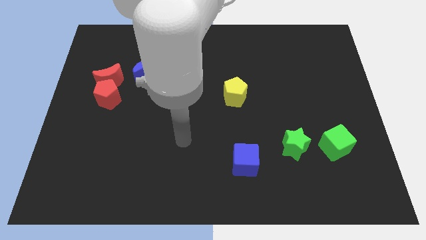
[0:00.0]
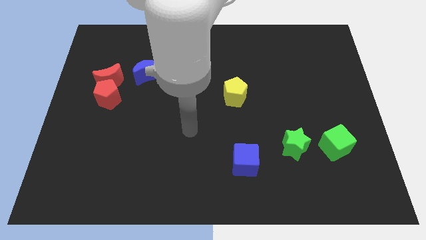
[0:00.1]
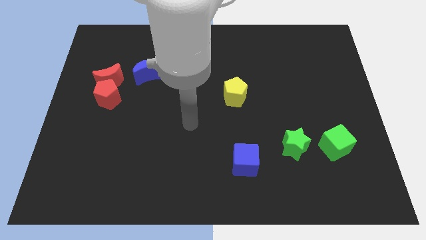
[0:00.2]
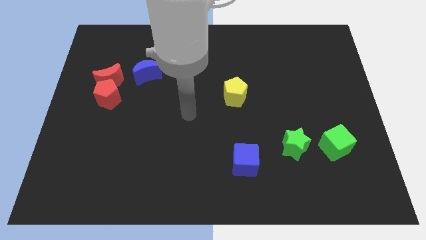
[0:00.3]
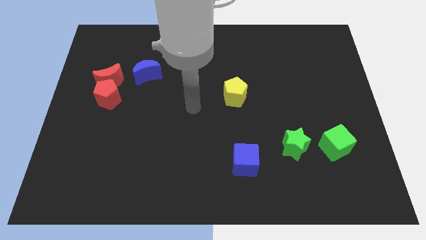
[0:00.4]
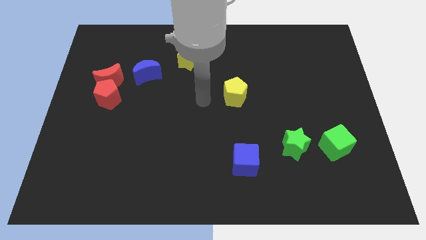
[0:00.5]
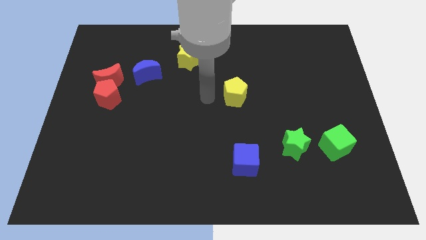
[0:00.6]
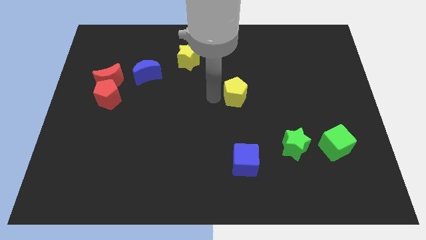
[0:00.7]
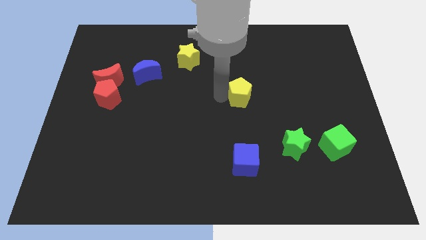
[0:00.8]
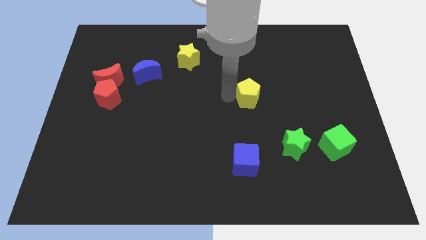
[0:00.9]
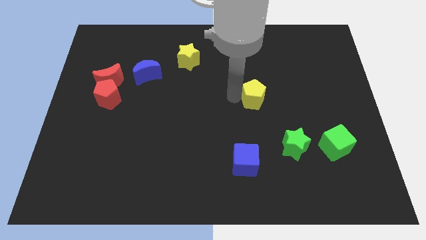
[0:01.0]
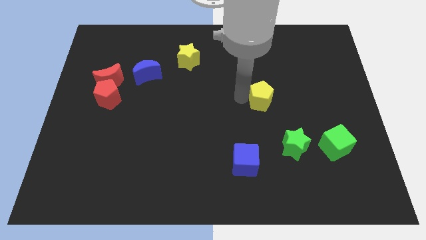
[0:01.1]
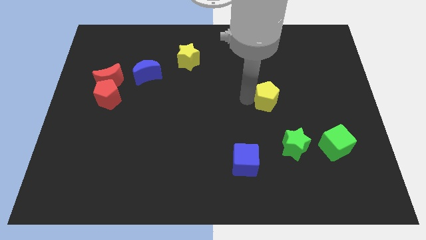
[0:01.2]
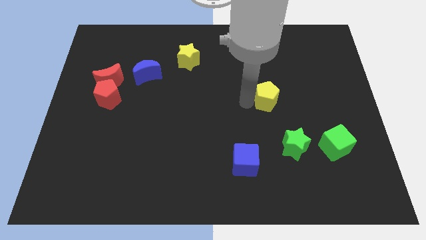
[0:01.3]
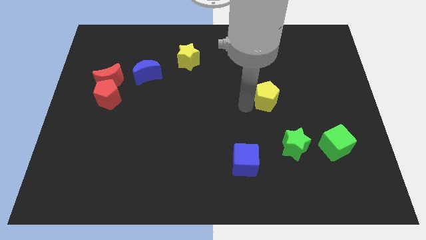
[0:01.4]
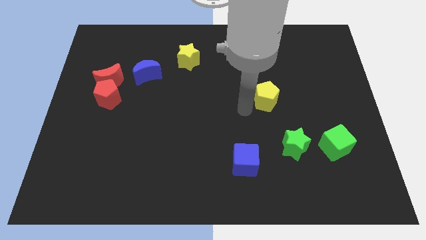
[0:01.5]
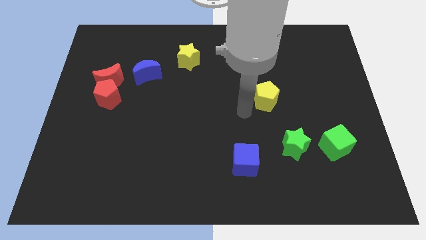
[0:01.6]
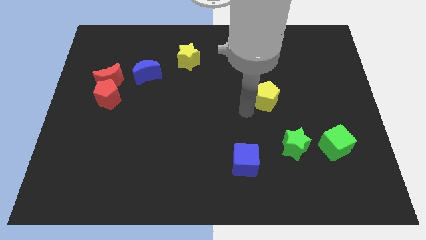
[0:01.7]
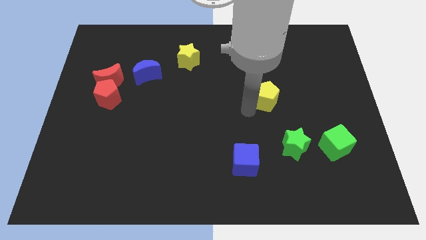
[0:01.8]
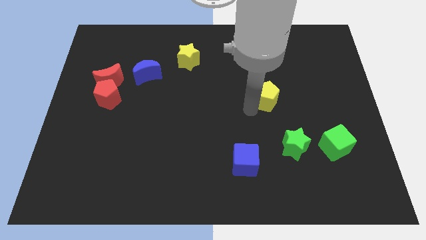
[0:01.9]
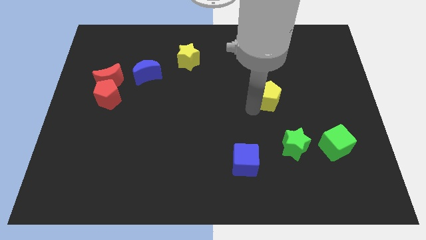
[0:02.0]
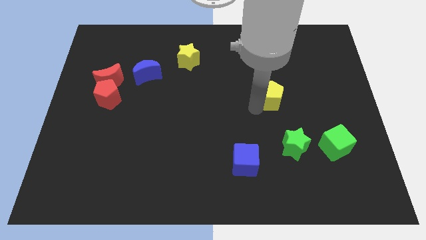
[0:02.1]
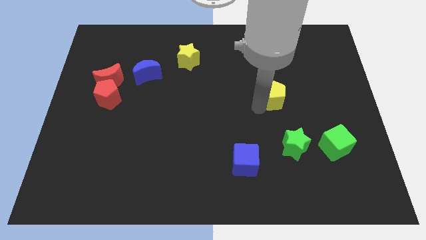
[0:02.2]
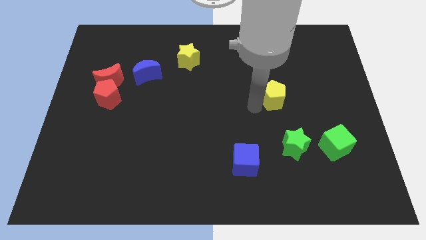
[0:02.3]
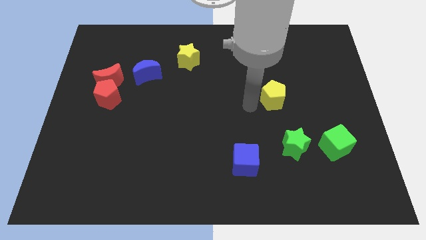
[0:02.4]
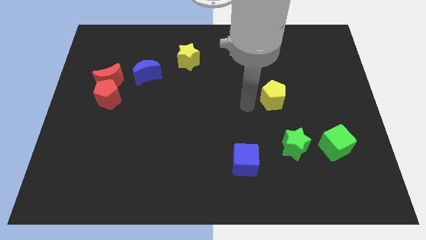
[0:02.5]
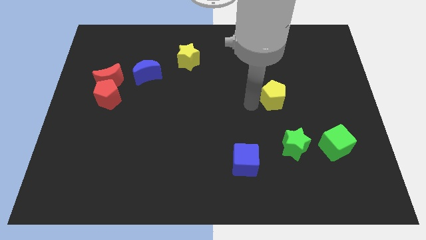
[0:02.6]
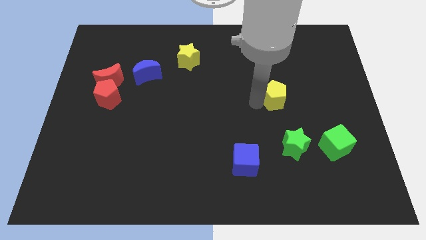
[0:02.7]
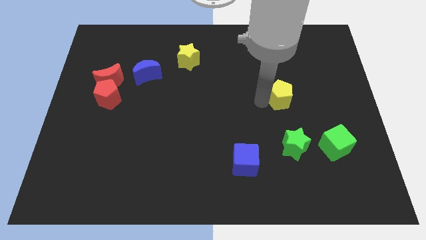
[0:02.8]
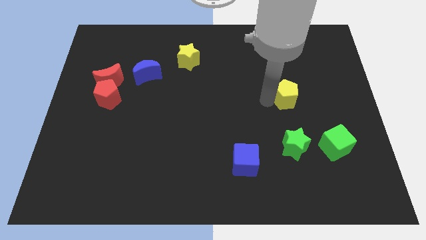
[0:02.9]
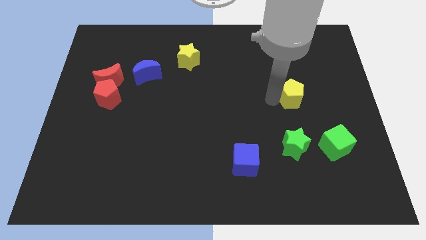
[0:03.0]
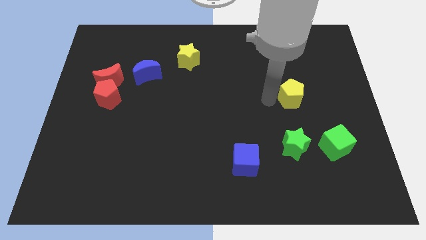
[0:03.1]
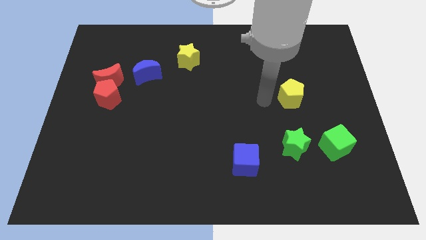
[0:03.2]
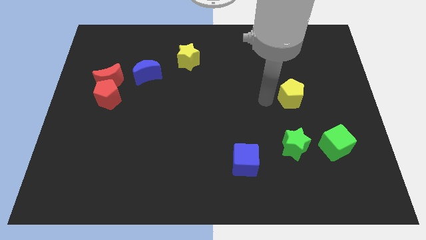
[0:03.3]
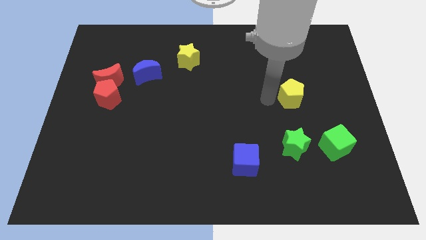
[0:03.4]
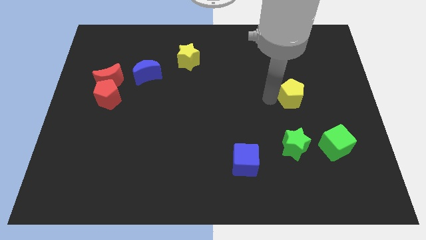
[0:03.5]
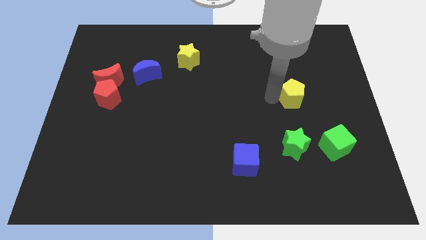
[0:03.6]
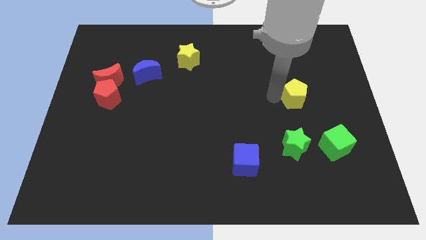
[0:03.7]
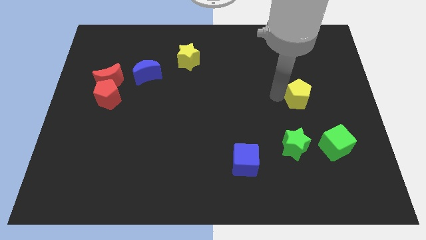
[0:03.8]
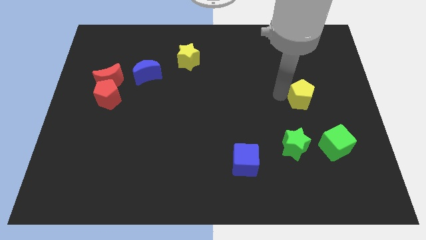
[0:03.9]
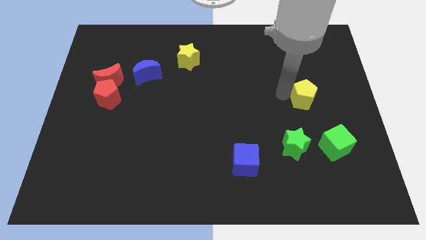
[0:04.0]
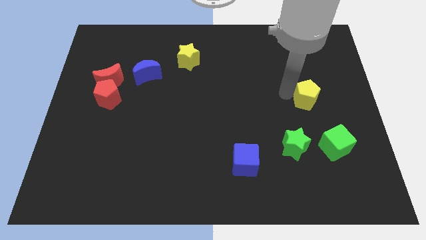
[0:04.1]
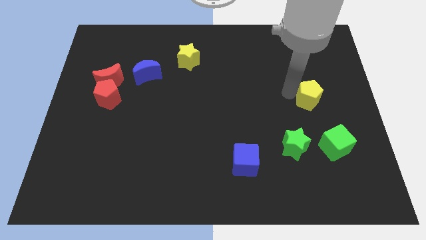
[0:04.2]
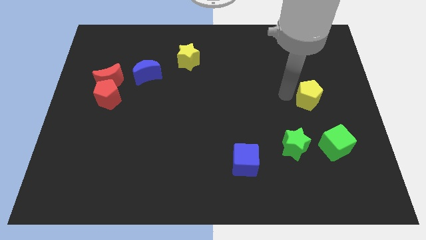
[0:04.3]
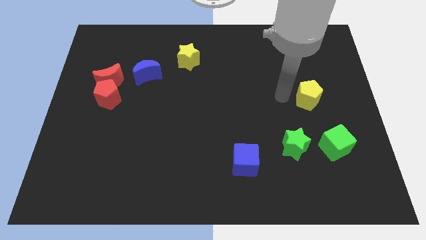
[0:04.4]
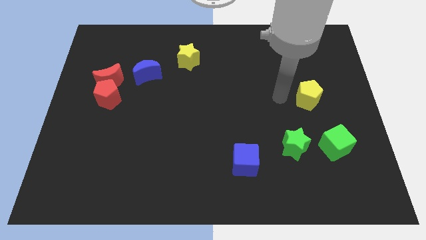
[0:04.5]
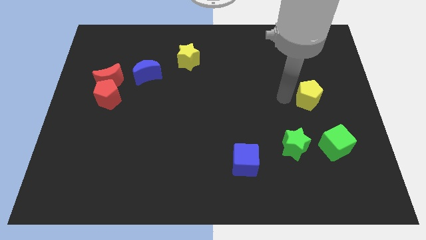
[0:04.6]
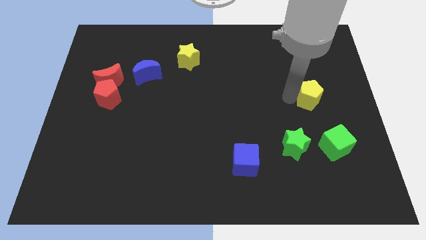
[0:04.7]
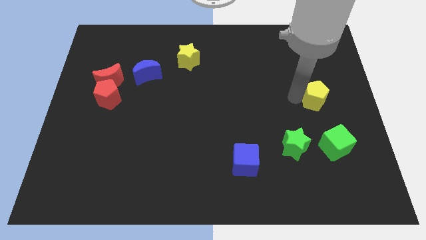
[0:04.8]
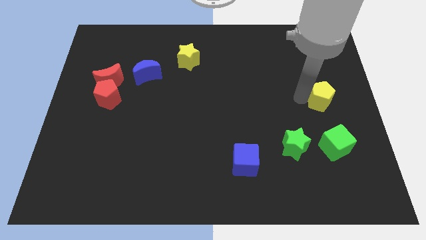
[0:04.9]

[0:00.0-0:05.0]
push the yellow pentagon to the right side
